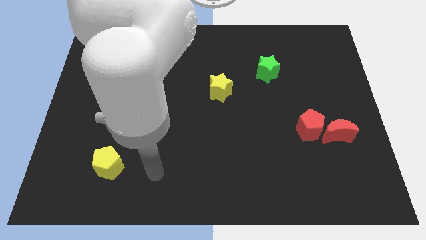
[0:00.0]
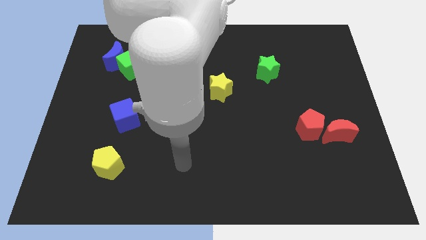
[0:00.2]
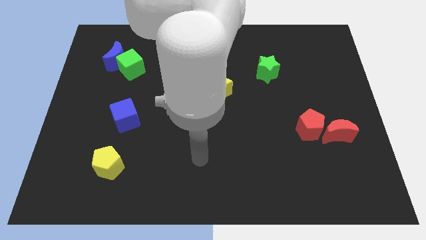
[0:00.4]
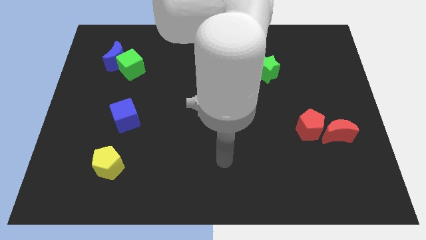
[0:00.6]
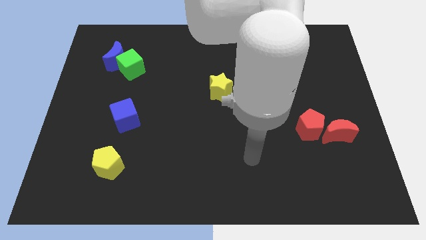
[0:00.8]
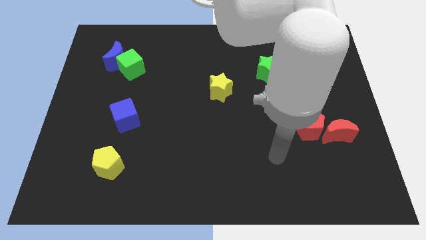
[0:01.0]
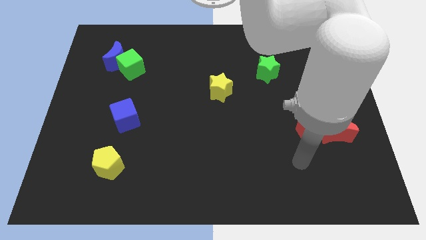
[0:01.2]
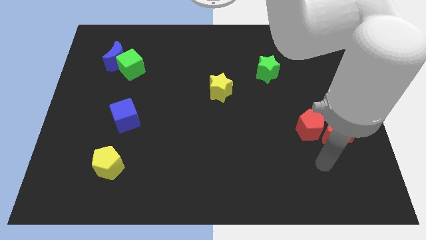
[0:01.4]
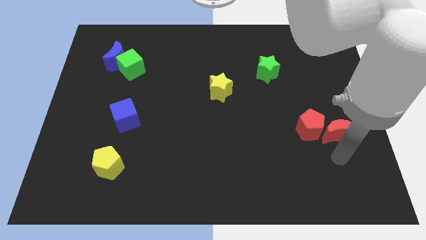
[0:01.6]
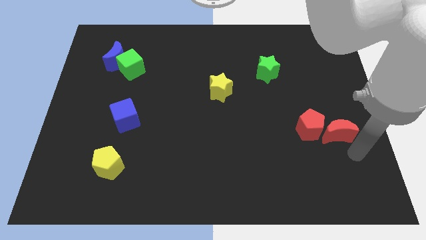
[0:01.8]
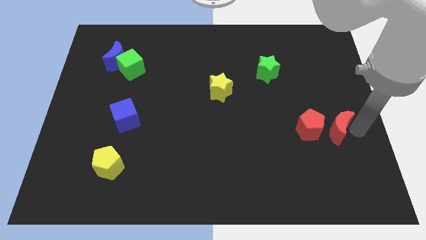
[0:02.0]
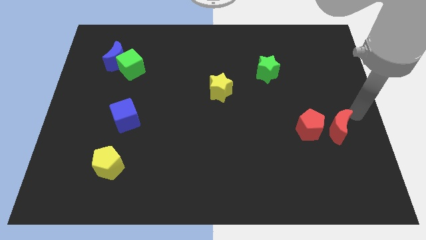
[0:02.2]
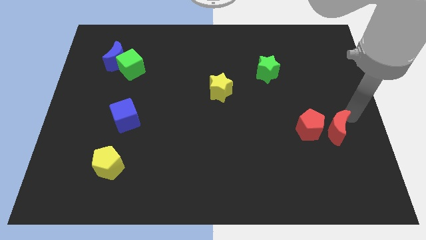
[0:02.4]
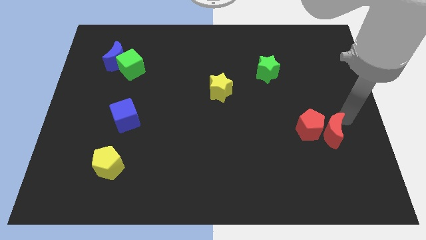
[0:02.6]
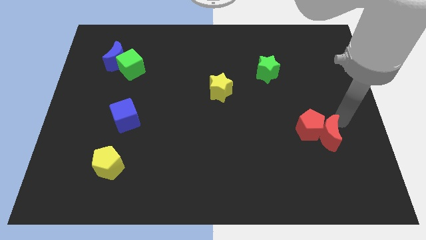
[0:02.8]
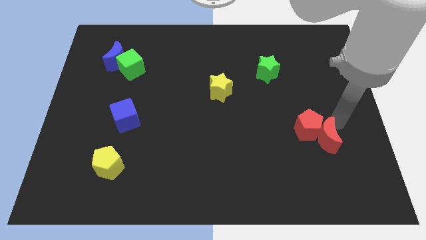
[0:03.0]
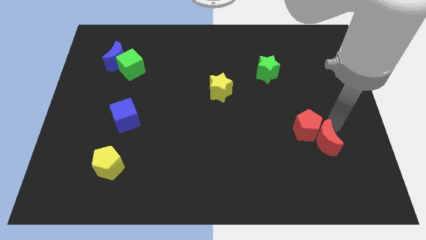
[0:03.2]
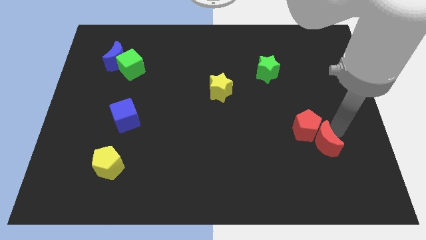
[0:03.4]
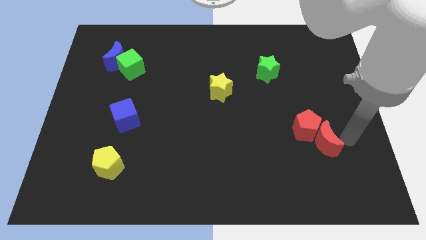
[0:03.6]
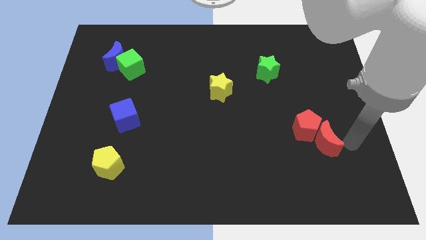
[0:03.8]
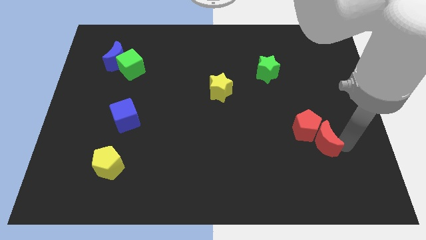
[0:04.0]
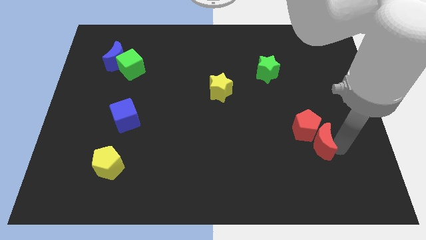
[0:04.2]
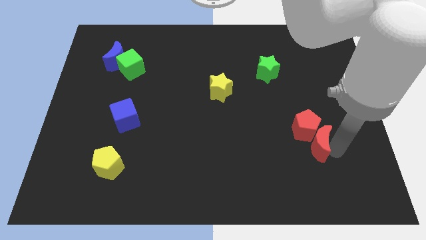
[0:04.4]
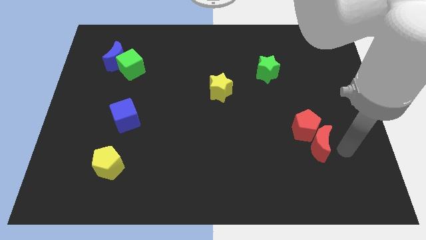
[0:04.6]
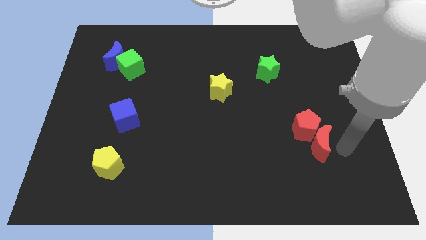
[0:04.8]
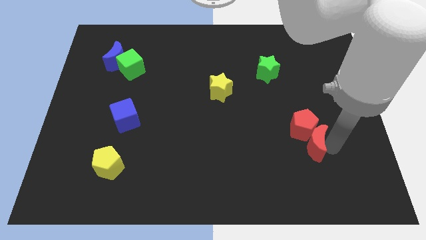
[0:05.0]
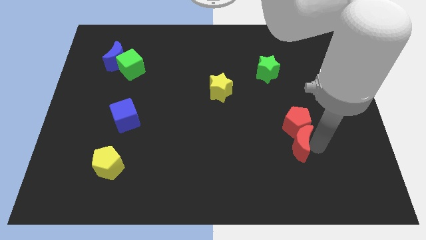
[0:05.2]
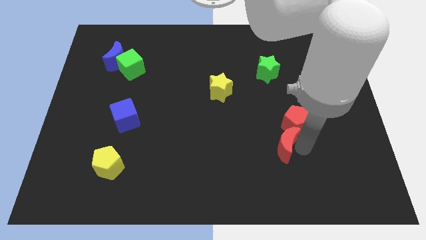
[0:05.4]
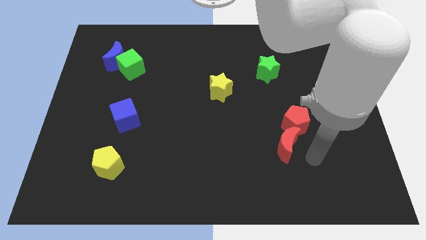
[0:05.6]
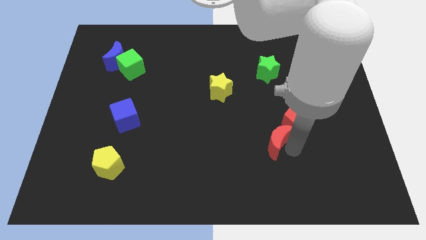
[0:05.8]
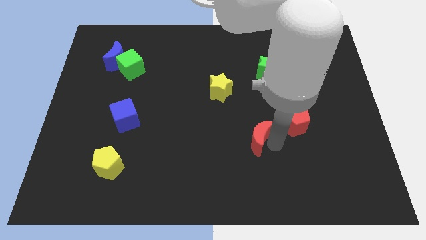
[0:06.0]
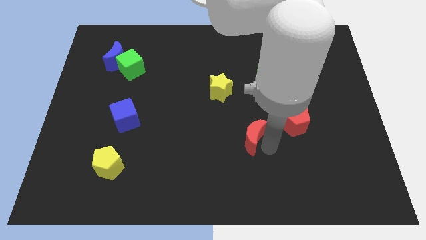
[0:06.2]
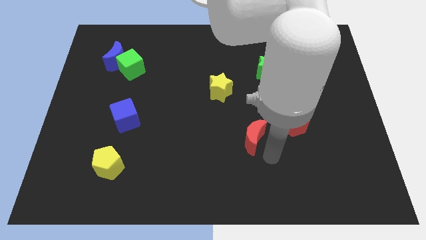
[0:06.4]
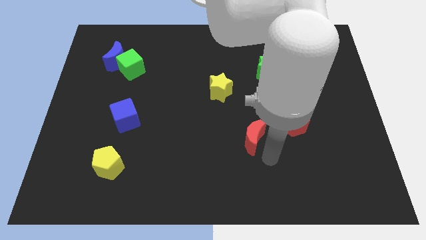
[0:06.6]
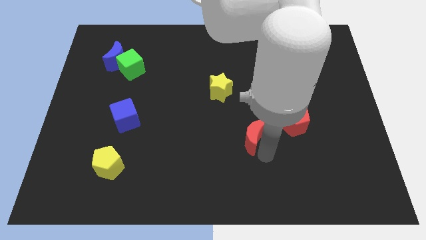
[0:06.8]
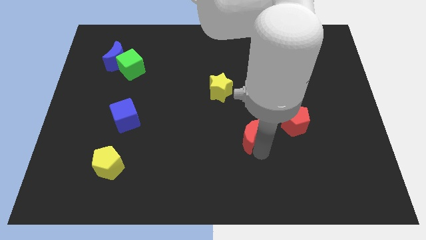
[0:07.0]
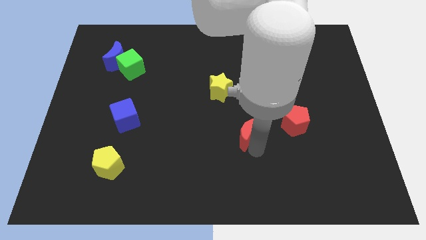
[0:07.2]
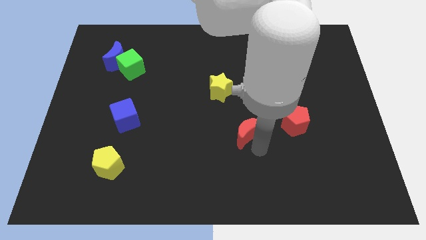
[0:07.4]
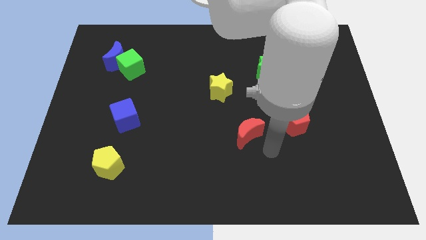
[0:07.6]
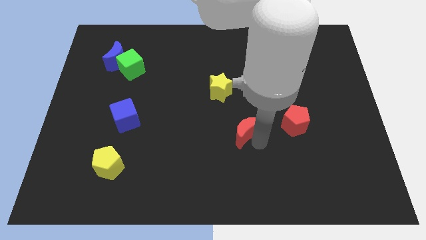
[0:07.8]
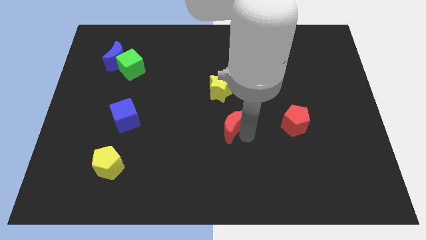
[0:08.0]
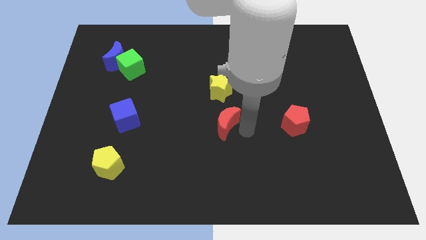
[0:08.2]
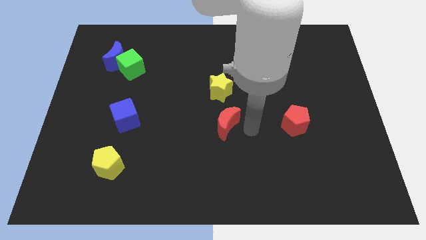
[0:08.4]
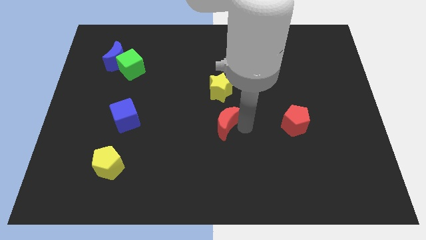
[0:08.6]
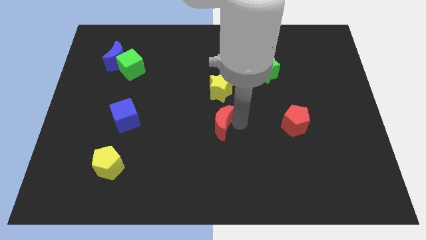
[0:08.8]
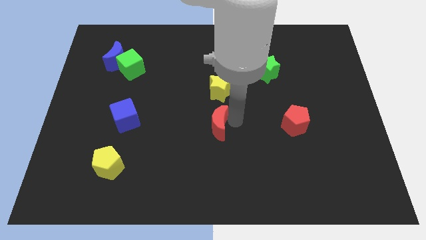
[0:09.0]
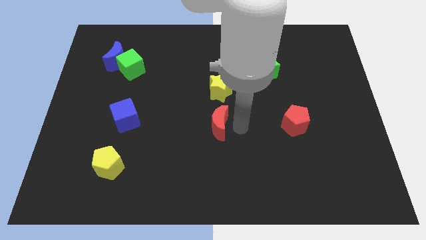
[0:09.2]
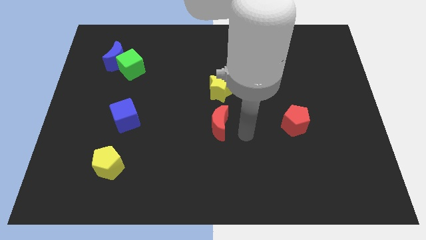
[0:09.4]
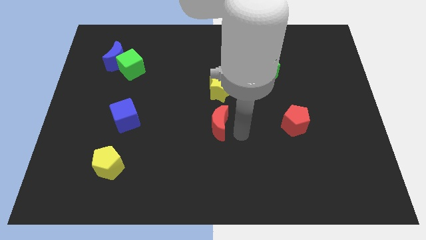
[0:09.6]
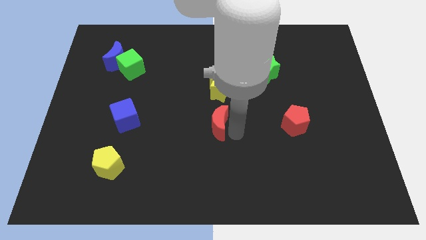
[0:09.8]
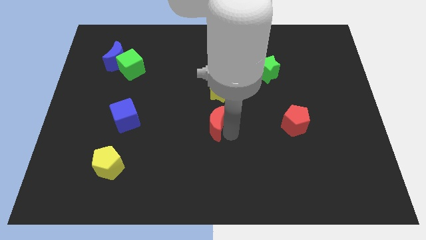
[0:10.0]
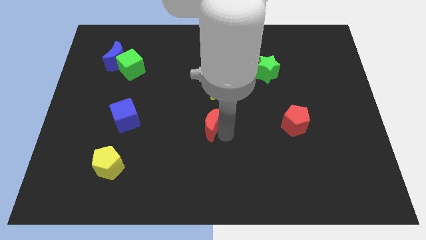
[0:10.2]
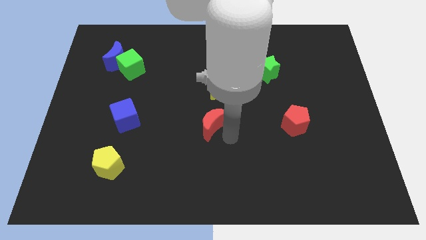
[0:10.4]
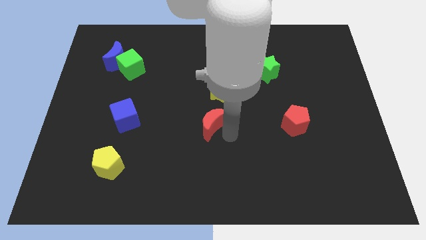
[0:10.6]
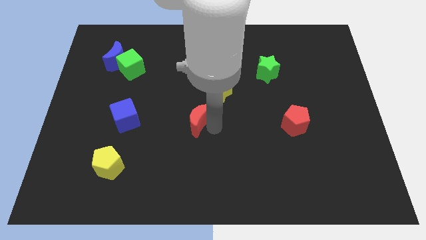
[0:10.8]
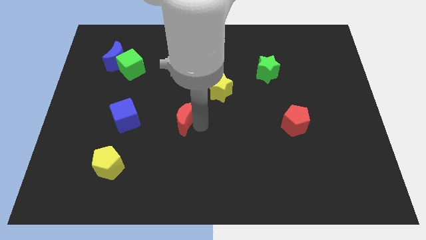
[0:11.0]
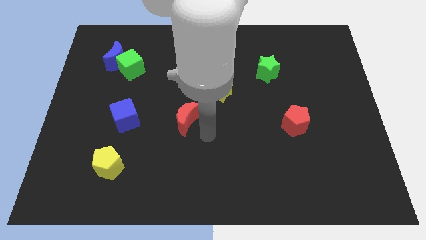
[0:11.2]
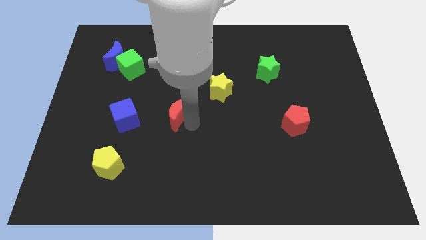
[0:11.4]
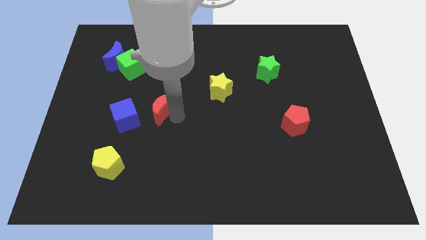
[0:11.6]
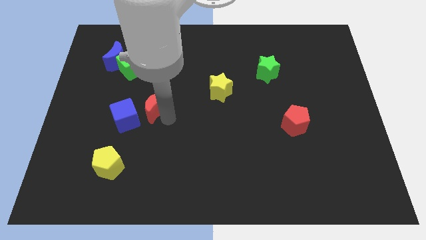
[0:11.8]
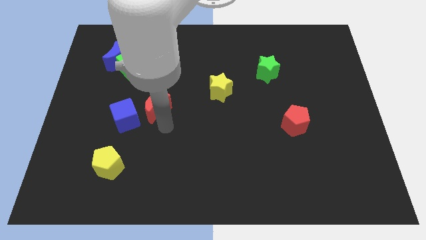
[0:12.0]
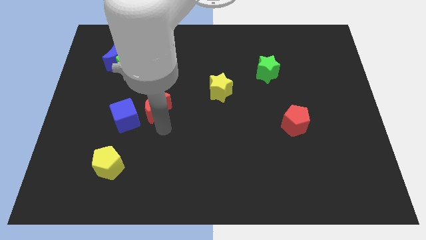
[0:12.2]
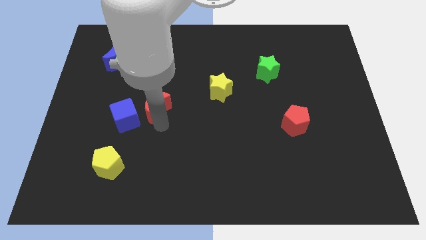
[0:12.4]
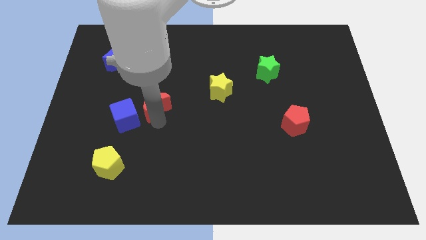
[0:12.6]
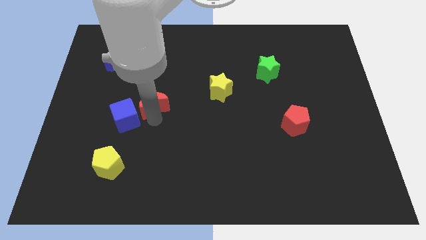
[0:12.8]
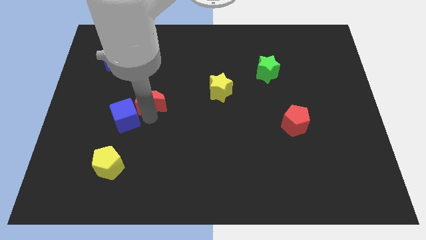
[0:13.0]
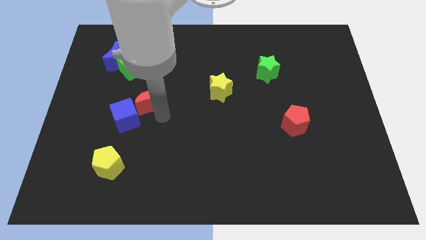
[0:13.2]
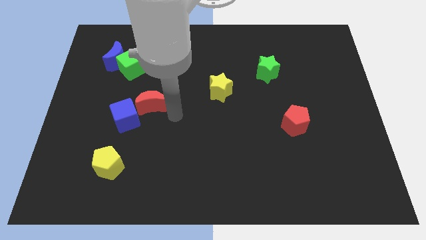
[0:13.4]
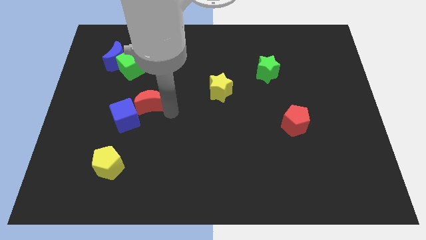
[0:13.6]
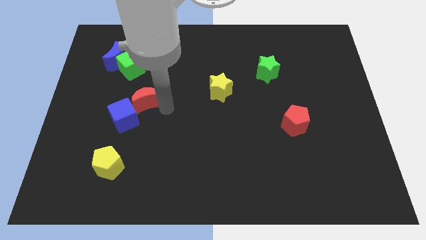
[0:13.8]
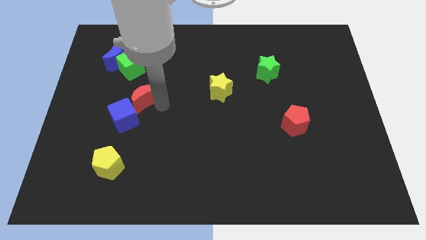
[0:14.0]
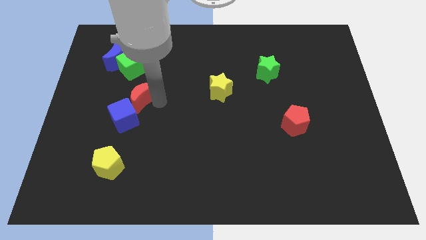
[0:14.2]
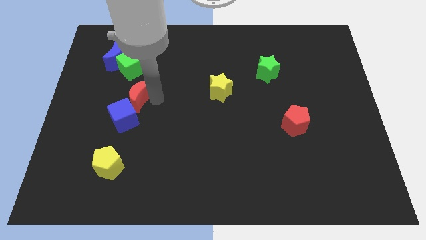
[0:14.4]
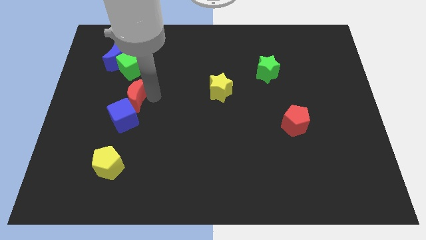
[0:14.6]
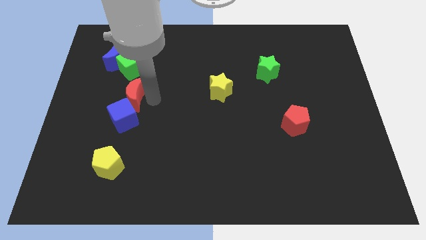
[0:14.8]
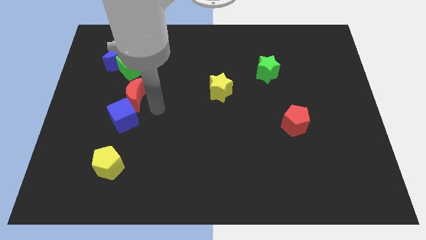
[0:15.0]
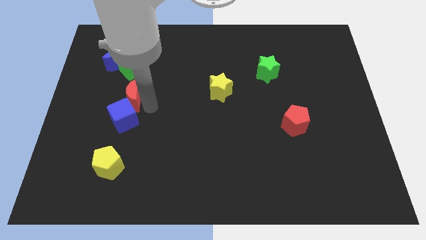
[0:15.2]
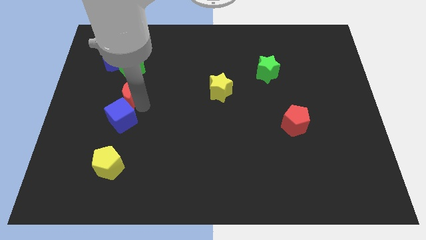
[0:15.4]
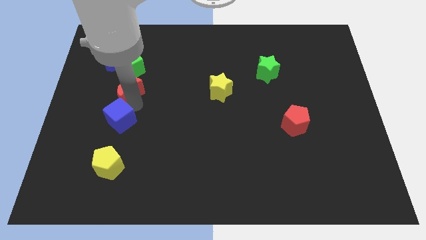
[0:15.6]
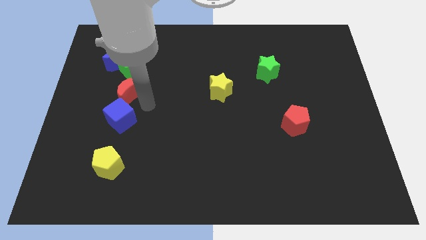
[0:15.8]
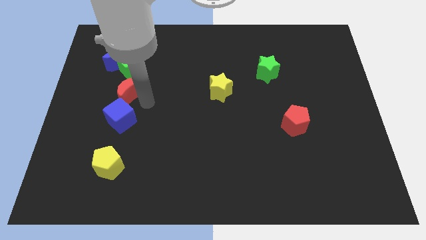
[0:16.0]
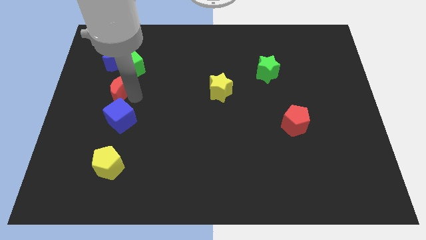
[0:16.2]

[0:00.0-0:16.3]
slide the red moon to the bottom left side of the green cube
